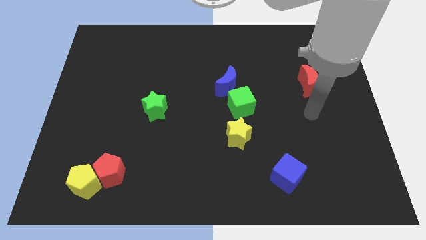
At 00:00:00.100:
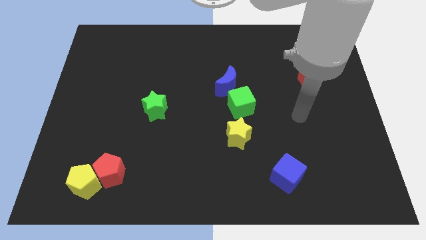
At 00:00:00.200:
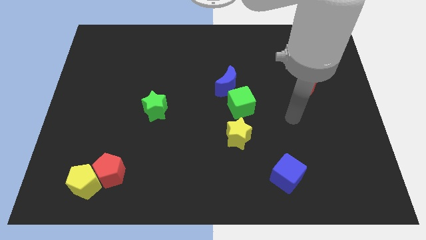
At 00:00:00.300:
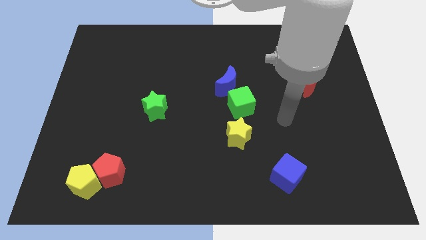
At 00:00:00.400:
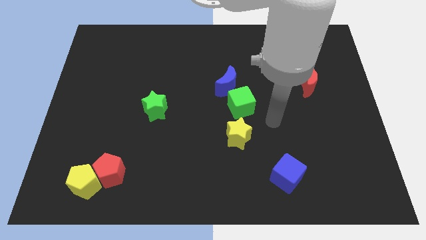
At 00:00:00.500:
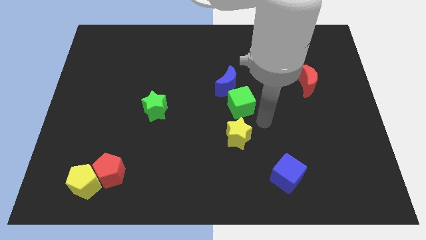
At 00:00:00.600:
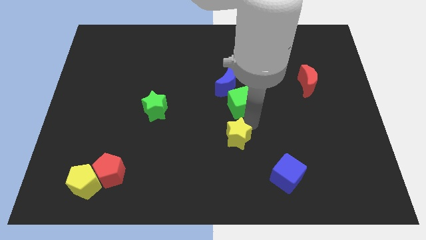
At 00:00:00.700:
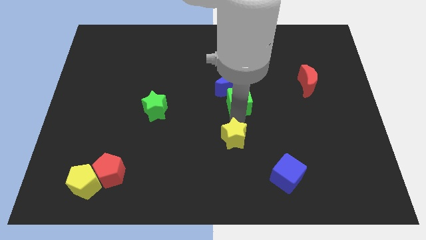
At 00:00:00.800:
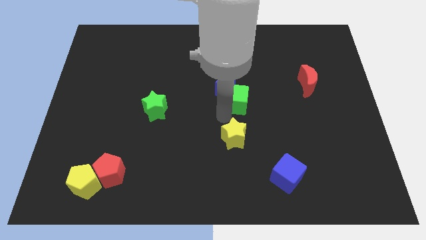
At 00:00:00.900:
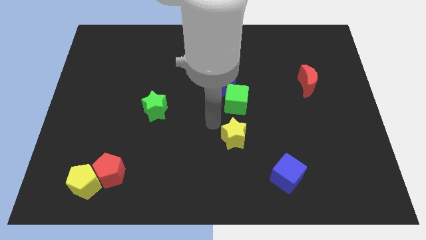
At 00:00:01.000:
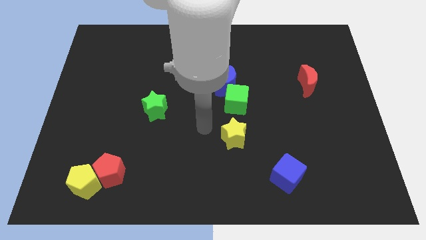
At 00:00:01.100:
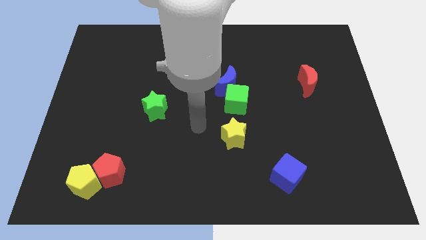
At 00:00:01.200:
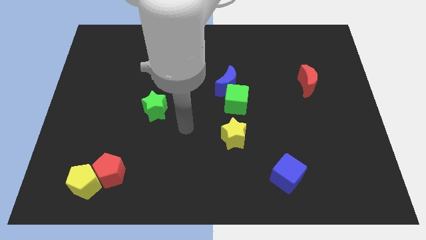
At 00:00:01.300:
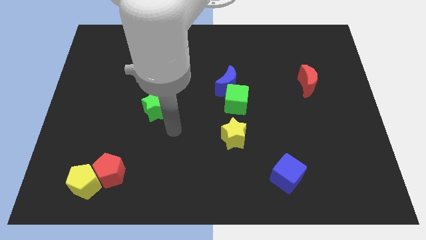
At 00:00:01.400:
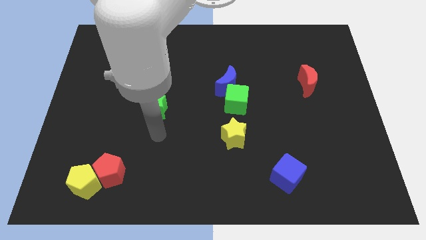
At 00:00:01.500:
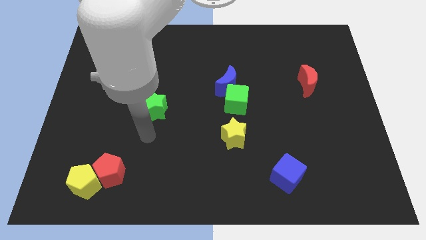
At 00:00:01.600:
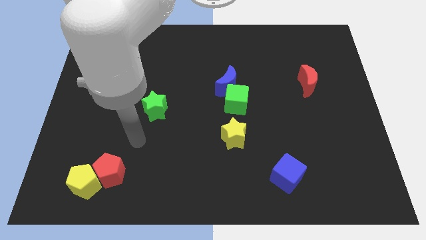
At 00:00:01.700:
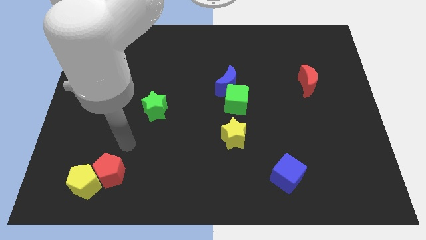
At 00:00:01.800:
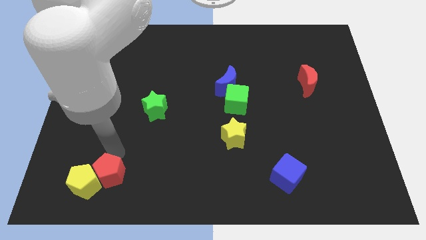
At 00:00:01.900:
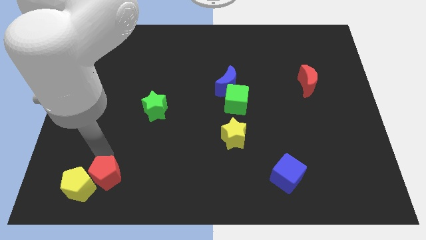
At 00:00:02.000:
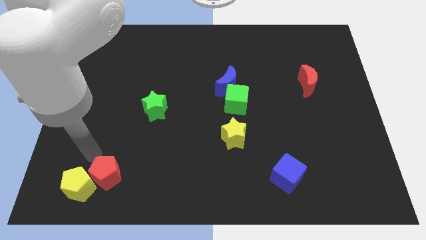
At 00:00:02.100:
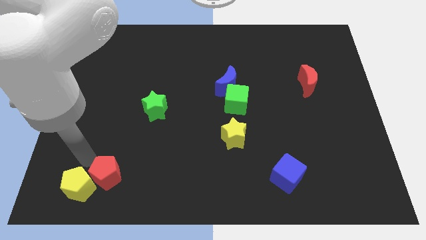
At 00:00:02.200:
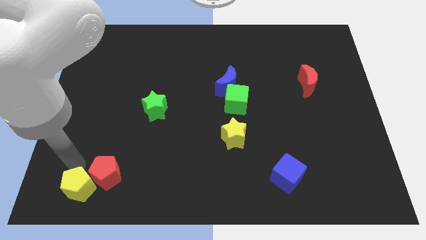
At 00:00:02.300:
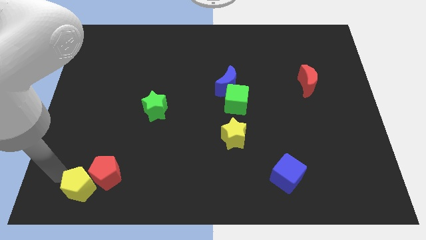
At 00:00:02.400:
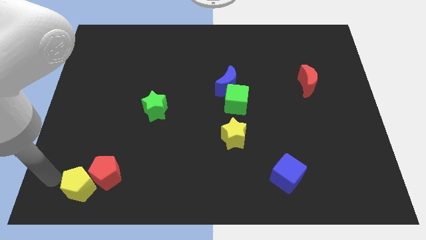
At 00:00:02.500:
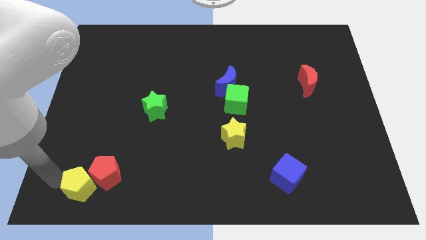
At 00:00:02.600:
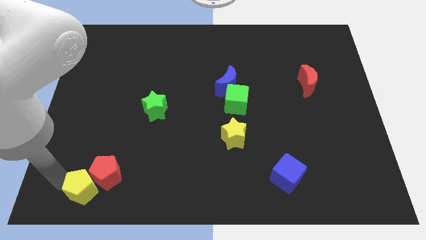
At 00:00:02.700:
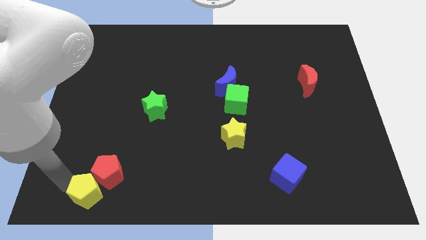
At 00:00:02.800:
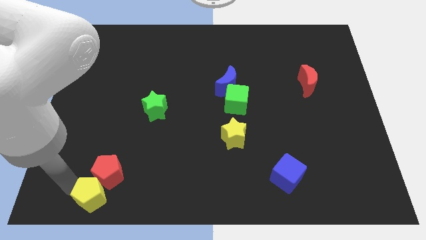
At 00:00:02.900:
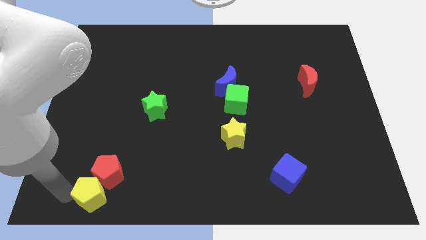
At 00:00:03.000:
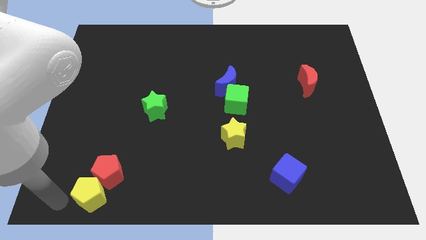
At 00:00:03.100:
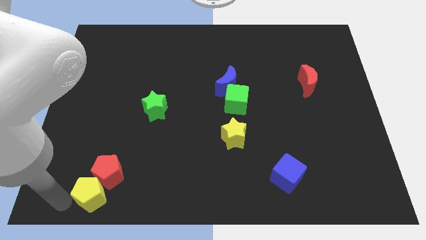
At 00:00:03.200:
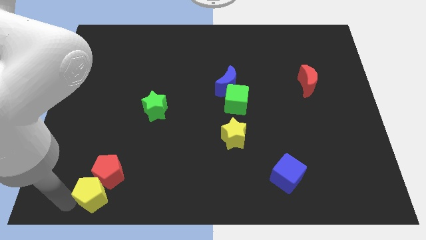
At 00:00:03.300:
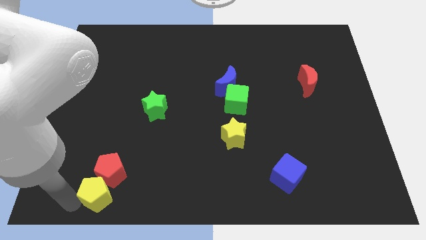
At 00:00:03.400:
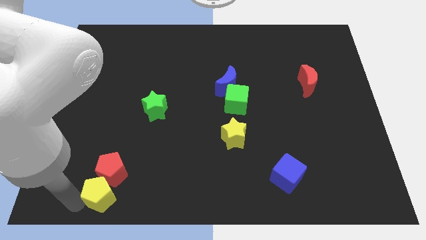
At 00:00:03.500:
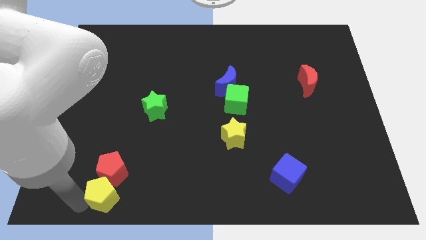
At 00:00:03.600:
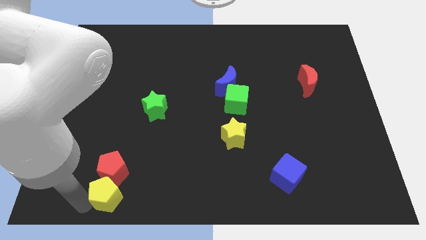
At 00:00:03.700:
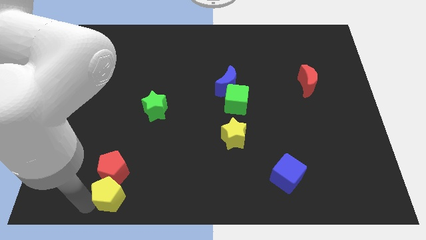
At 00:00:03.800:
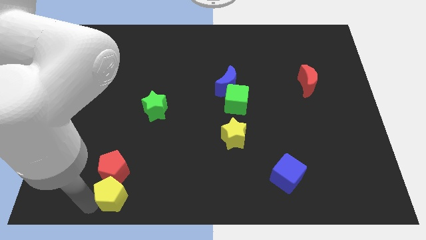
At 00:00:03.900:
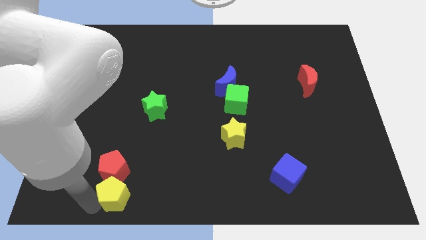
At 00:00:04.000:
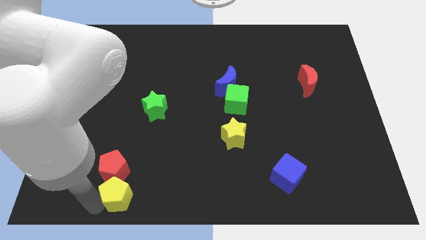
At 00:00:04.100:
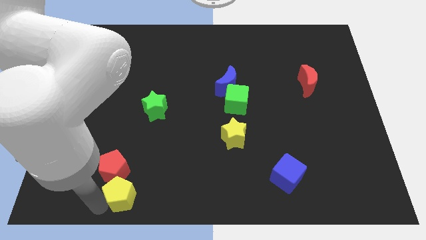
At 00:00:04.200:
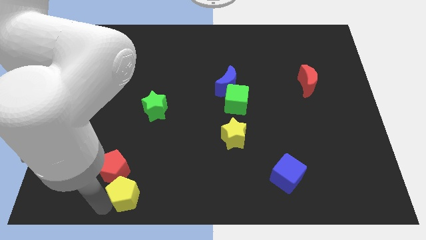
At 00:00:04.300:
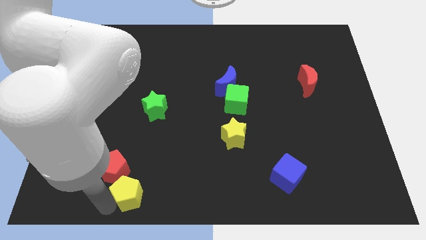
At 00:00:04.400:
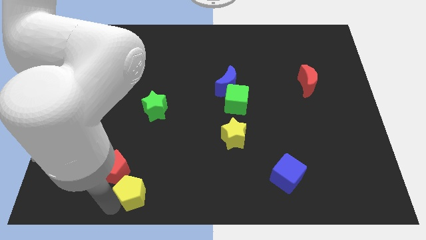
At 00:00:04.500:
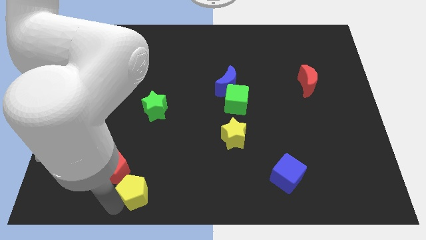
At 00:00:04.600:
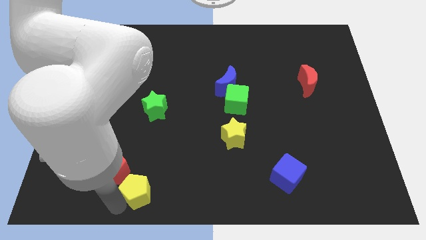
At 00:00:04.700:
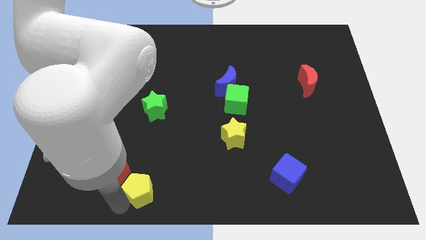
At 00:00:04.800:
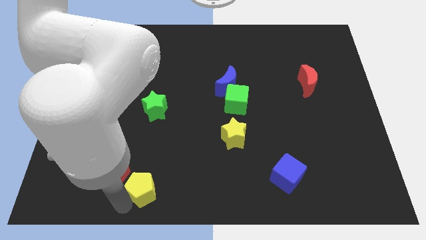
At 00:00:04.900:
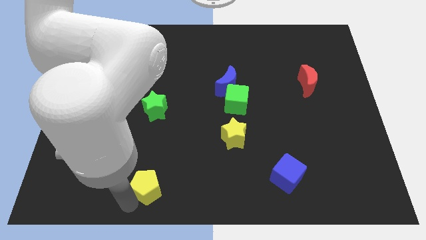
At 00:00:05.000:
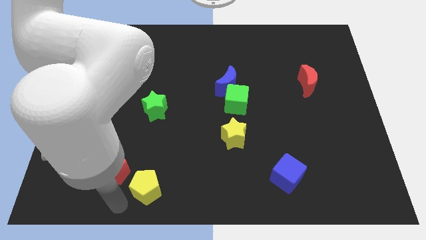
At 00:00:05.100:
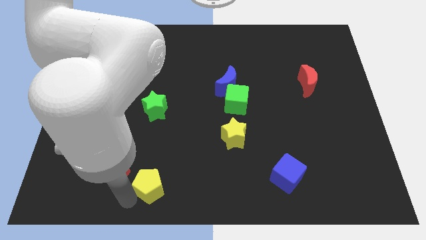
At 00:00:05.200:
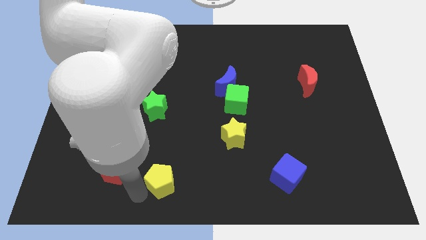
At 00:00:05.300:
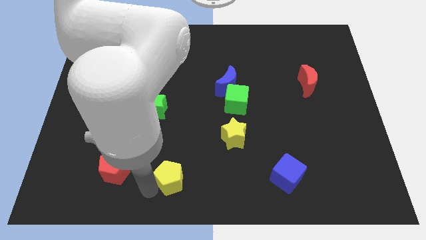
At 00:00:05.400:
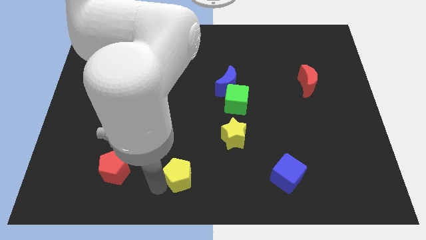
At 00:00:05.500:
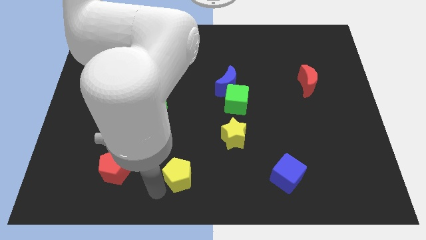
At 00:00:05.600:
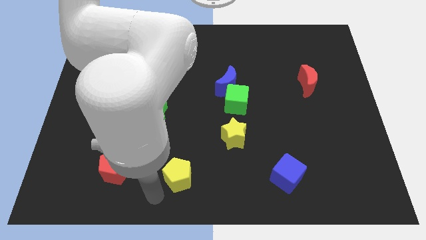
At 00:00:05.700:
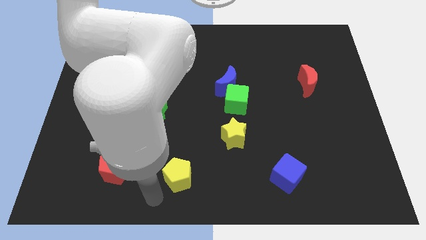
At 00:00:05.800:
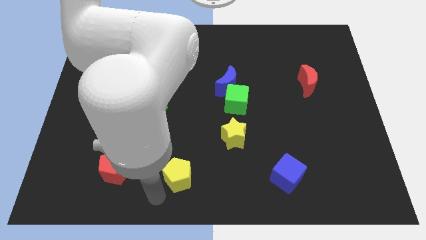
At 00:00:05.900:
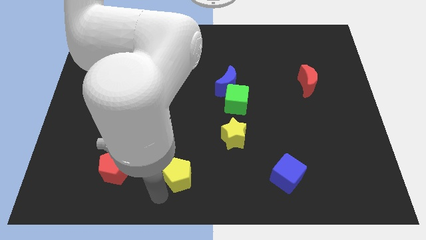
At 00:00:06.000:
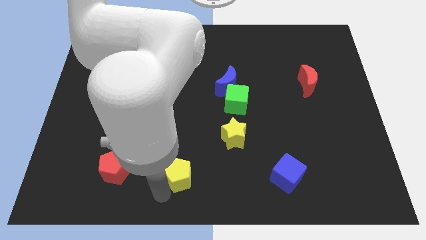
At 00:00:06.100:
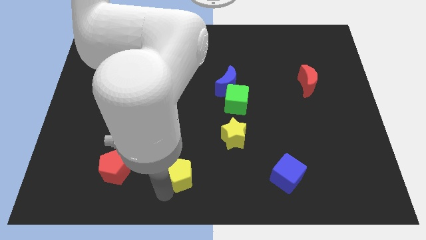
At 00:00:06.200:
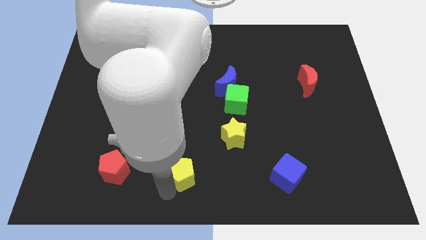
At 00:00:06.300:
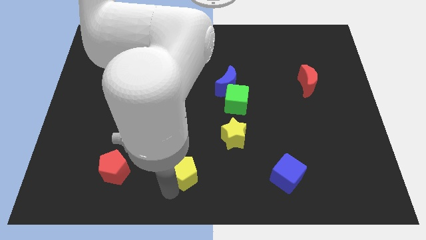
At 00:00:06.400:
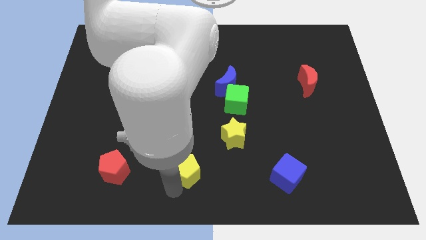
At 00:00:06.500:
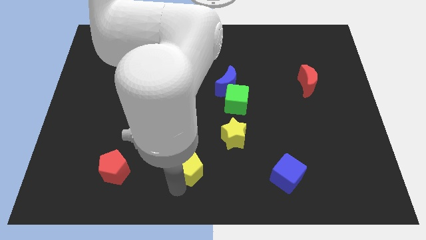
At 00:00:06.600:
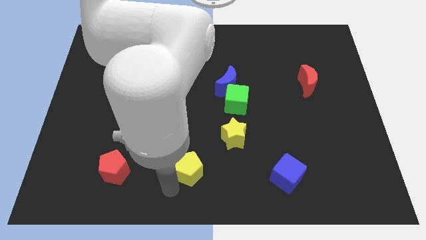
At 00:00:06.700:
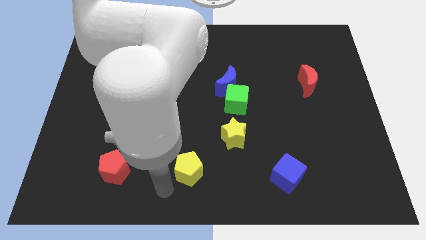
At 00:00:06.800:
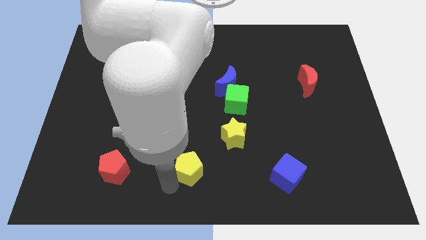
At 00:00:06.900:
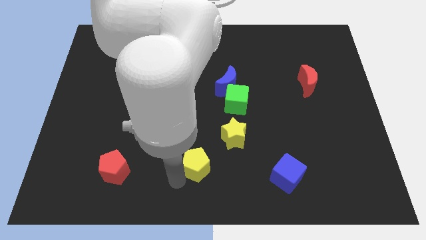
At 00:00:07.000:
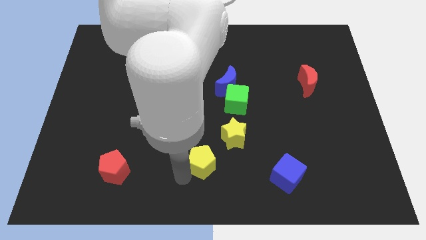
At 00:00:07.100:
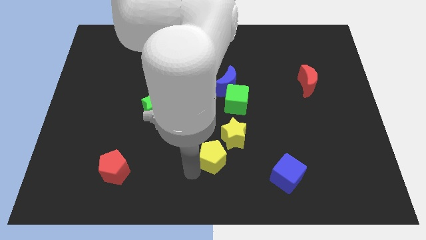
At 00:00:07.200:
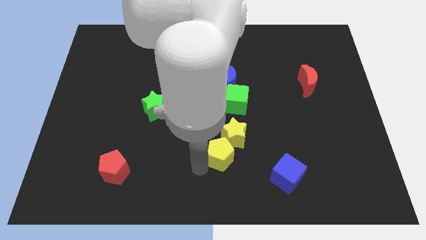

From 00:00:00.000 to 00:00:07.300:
put the yellow pentagon close to the yellow star
